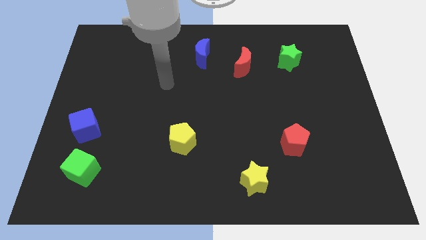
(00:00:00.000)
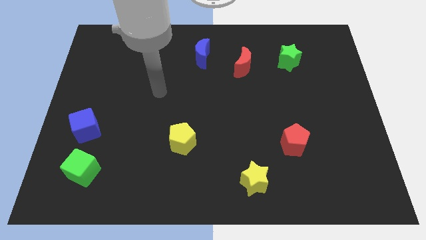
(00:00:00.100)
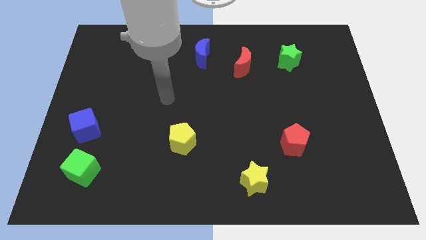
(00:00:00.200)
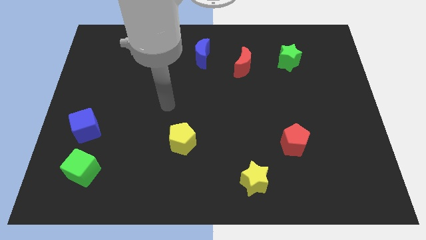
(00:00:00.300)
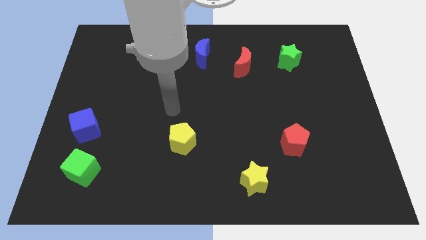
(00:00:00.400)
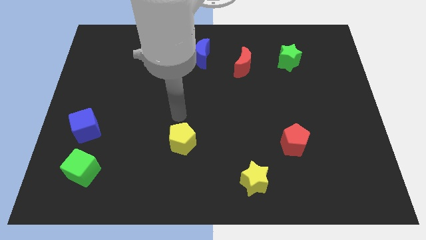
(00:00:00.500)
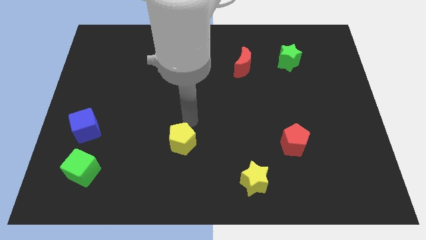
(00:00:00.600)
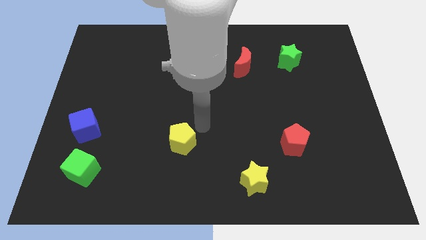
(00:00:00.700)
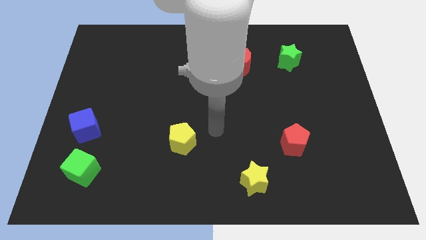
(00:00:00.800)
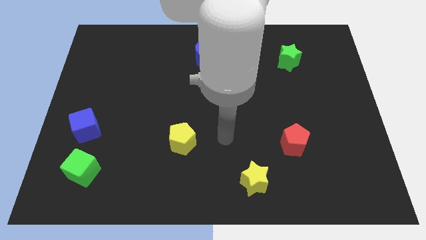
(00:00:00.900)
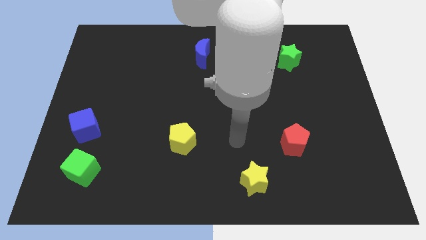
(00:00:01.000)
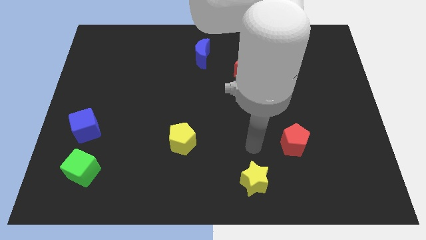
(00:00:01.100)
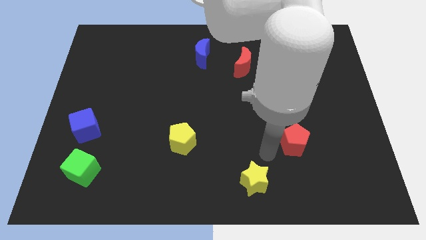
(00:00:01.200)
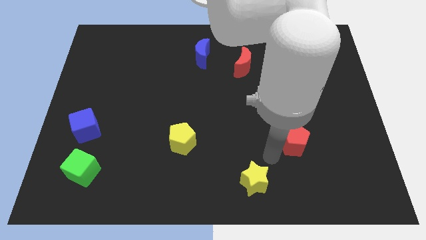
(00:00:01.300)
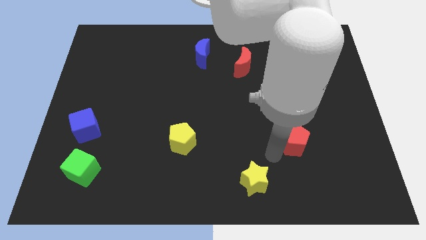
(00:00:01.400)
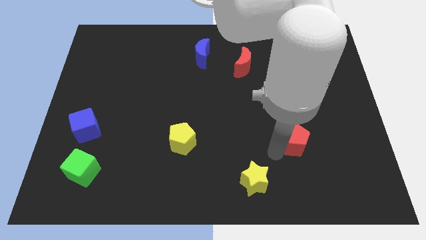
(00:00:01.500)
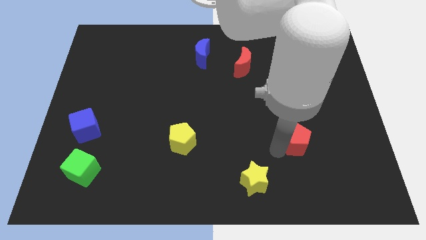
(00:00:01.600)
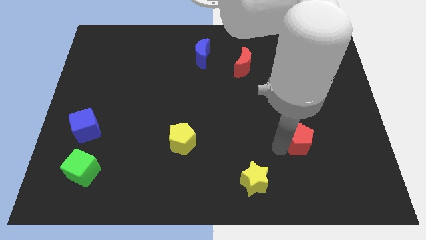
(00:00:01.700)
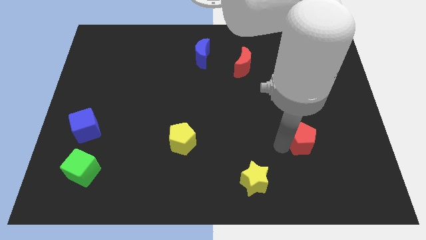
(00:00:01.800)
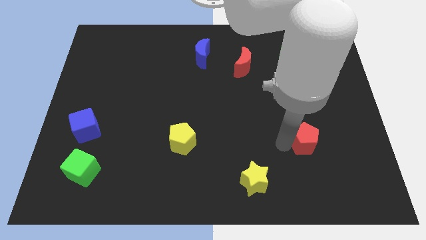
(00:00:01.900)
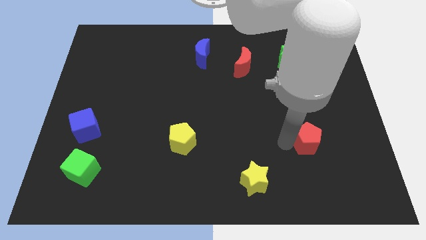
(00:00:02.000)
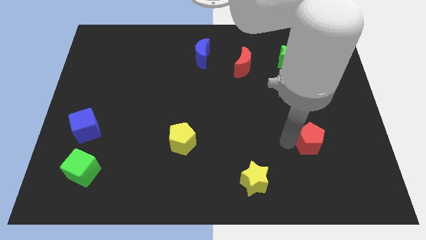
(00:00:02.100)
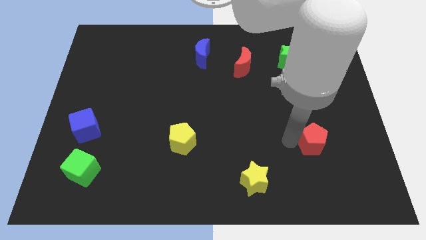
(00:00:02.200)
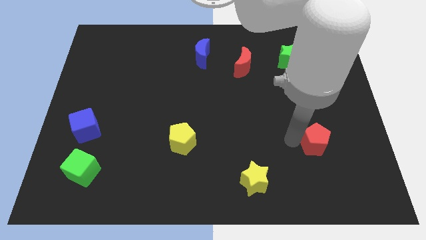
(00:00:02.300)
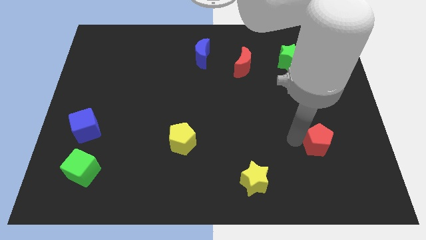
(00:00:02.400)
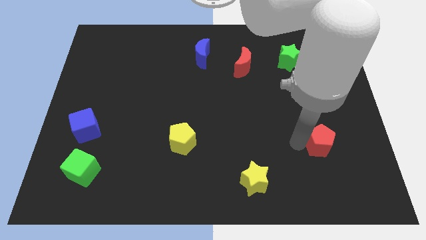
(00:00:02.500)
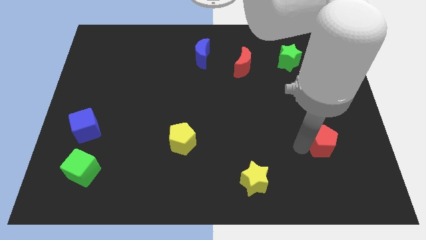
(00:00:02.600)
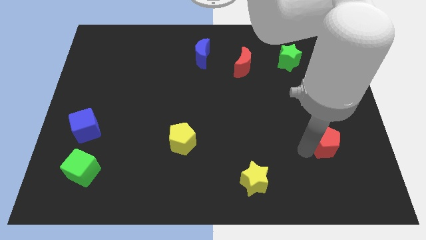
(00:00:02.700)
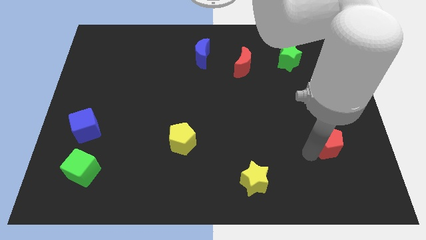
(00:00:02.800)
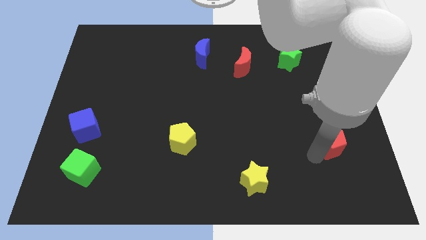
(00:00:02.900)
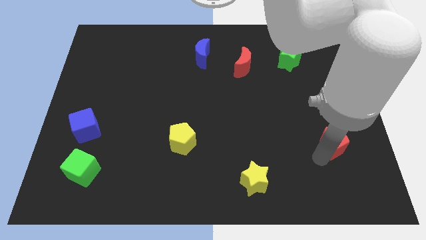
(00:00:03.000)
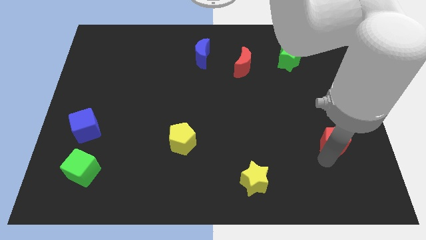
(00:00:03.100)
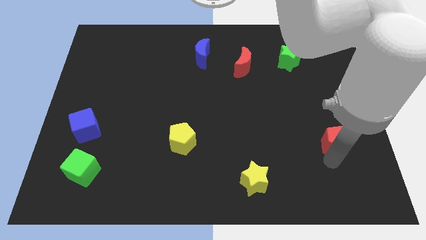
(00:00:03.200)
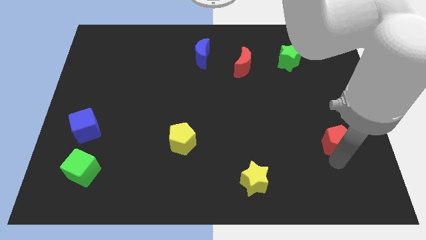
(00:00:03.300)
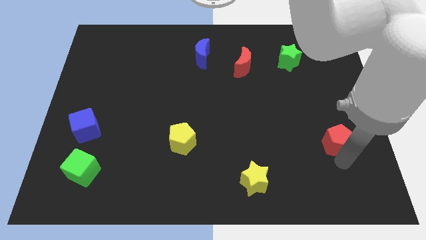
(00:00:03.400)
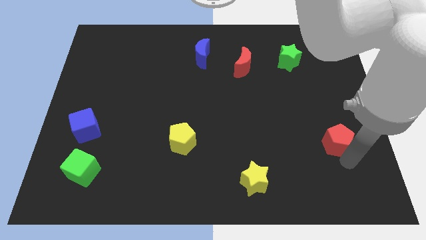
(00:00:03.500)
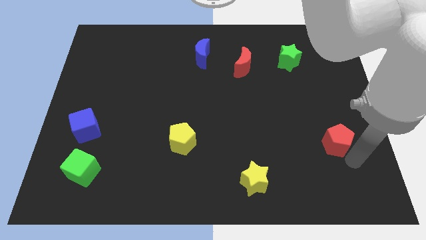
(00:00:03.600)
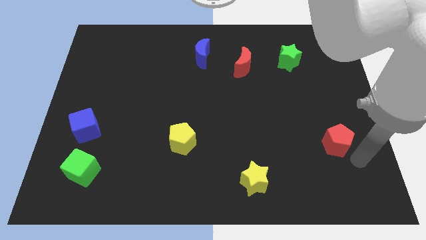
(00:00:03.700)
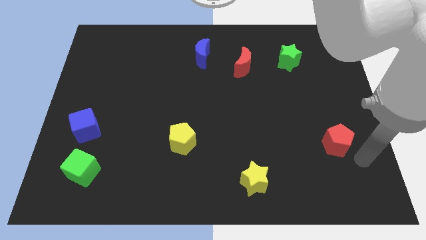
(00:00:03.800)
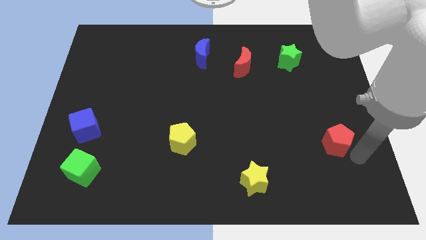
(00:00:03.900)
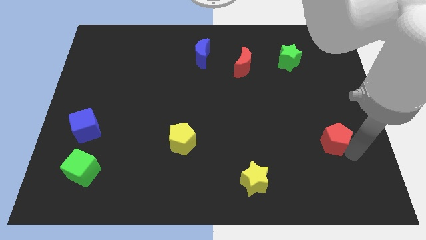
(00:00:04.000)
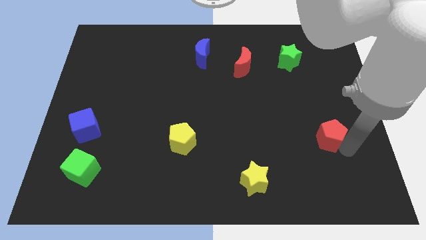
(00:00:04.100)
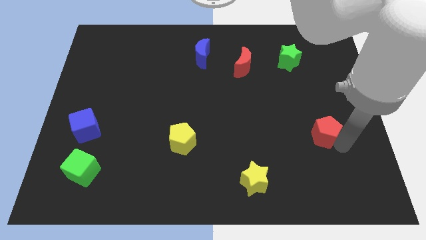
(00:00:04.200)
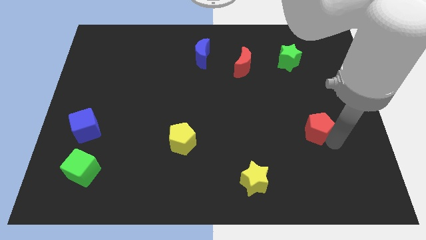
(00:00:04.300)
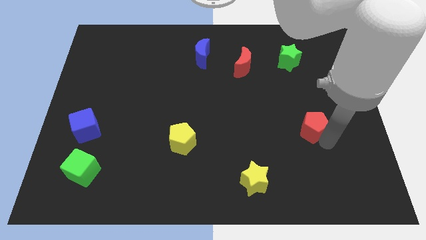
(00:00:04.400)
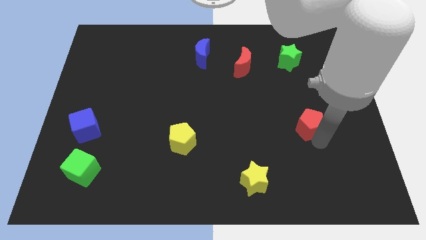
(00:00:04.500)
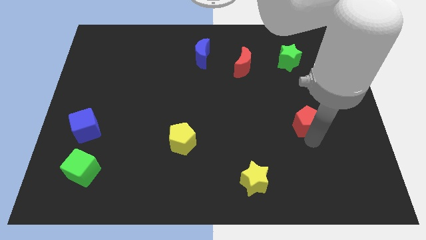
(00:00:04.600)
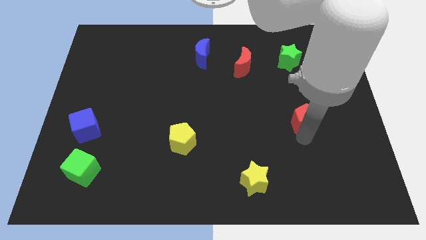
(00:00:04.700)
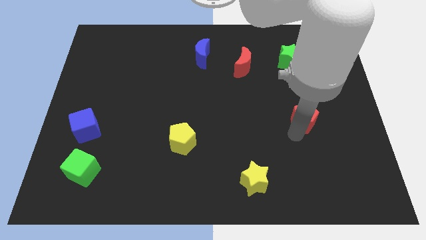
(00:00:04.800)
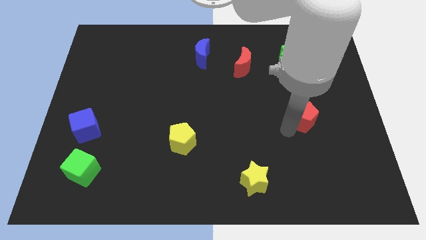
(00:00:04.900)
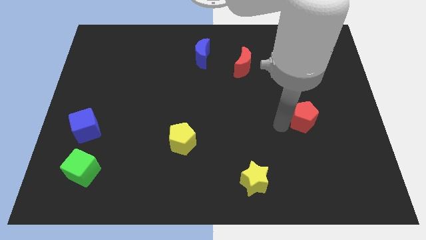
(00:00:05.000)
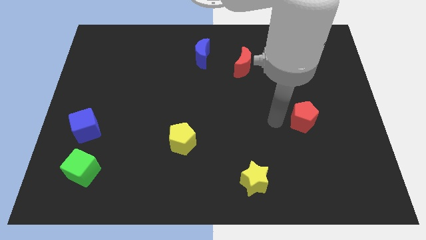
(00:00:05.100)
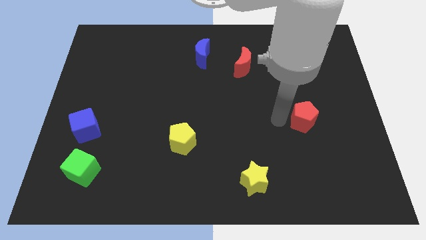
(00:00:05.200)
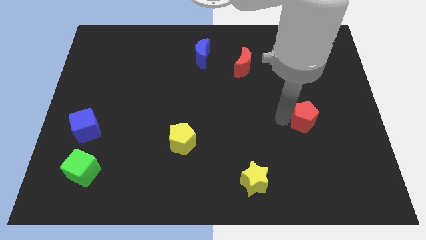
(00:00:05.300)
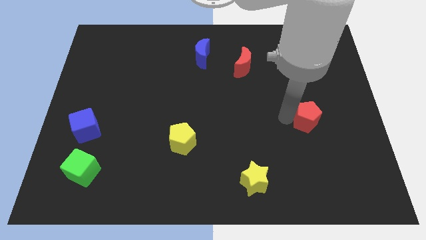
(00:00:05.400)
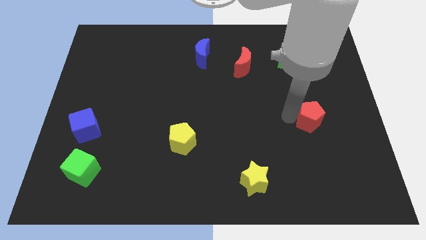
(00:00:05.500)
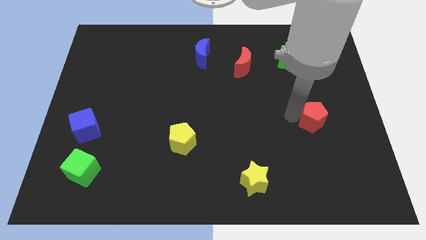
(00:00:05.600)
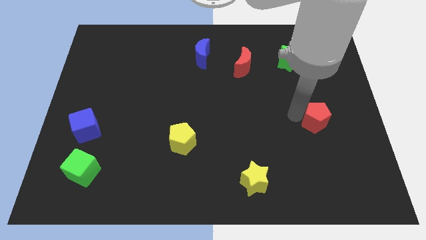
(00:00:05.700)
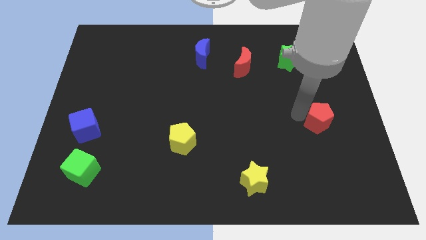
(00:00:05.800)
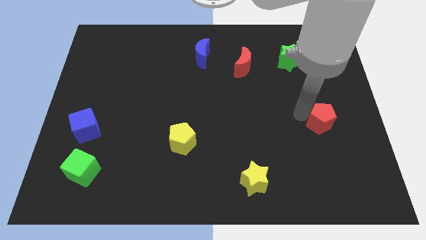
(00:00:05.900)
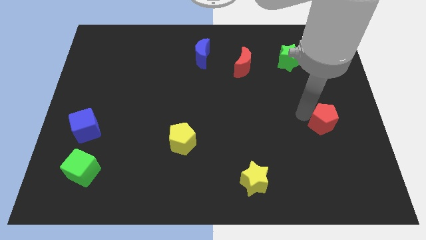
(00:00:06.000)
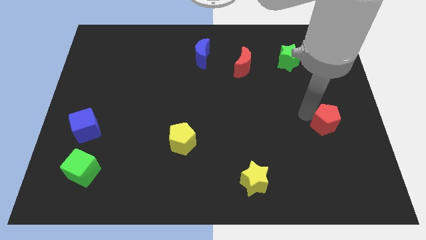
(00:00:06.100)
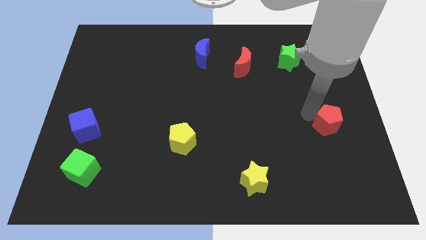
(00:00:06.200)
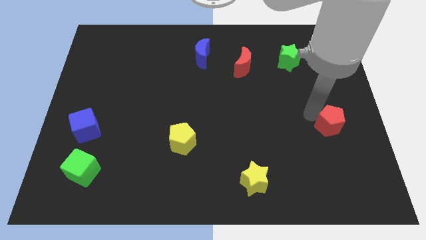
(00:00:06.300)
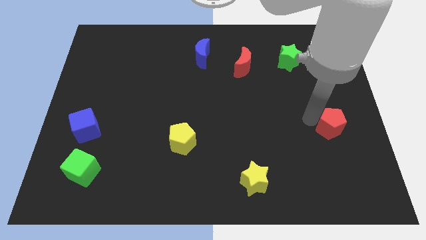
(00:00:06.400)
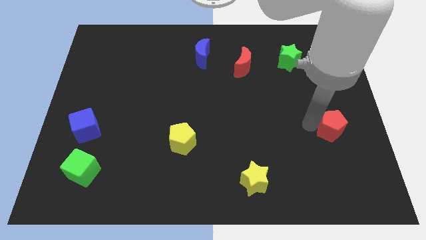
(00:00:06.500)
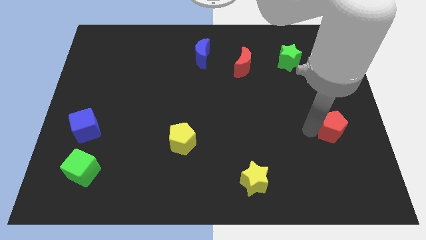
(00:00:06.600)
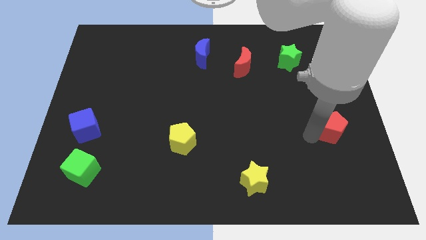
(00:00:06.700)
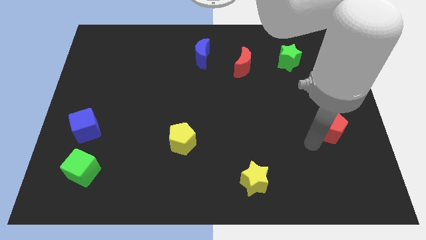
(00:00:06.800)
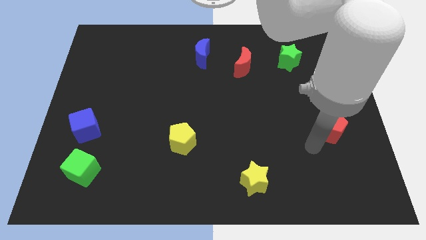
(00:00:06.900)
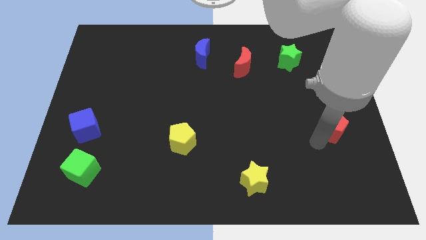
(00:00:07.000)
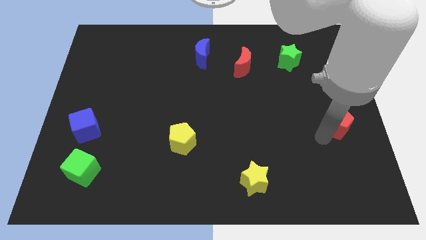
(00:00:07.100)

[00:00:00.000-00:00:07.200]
slide the red pentagon to the right side
